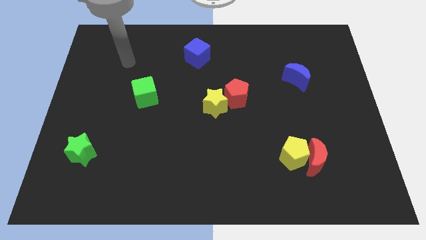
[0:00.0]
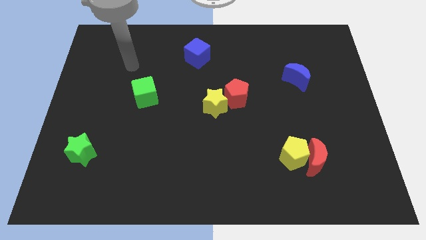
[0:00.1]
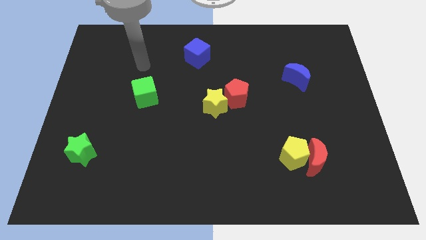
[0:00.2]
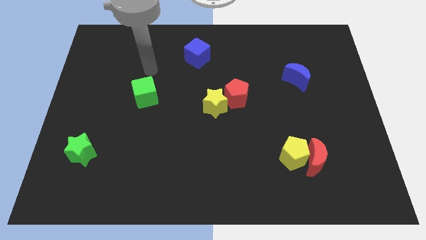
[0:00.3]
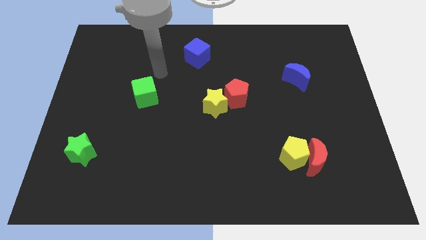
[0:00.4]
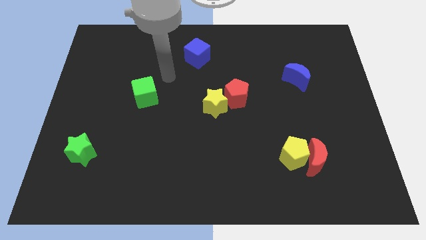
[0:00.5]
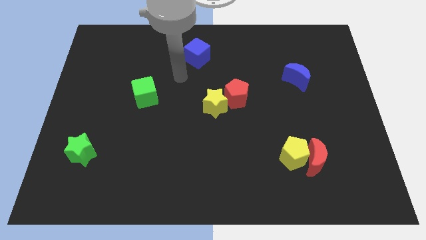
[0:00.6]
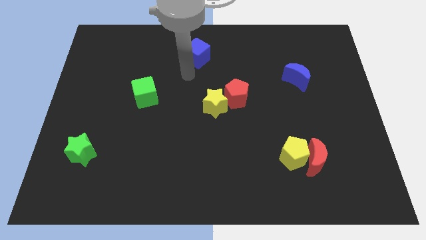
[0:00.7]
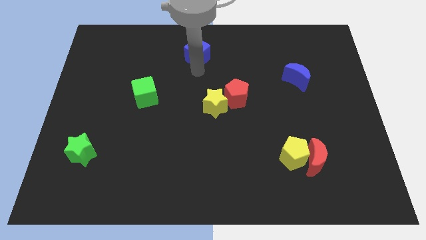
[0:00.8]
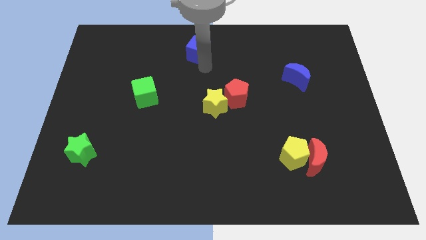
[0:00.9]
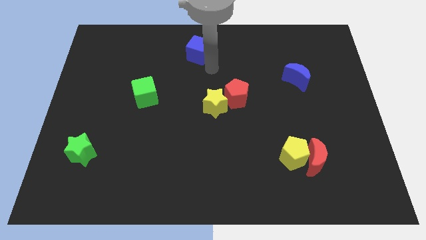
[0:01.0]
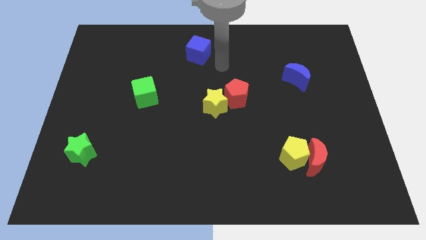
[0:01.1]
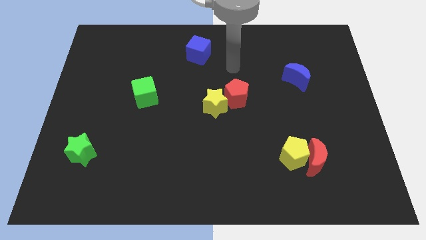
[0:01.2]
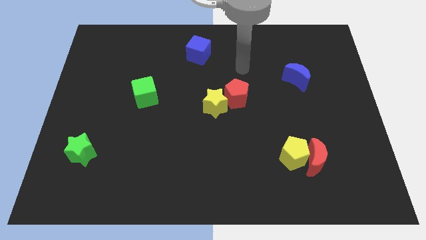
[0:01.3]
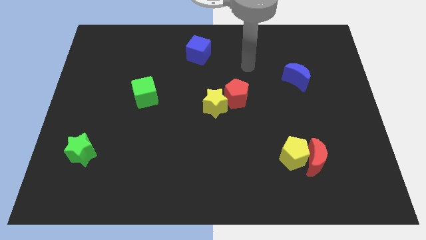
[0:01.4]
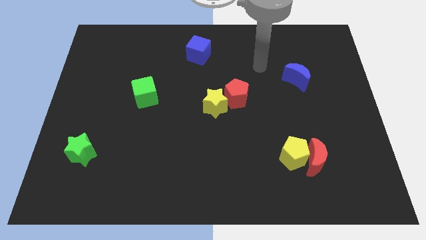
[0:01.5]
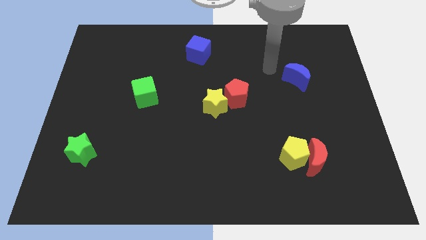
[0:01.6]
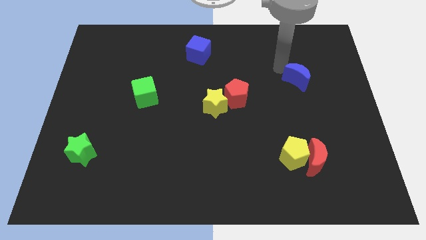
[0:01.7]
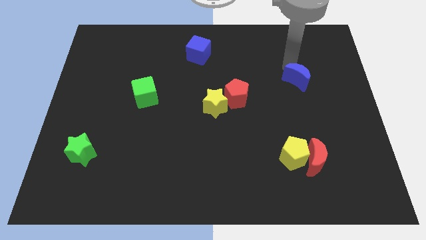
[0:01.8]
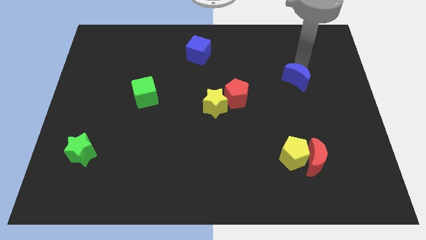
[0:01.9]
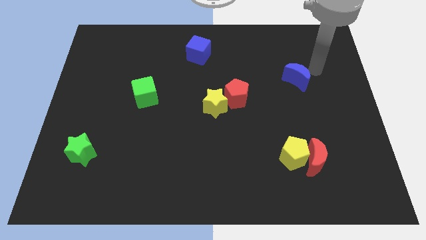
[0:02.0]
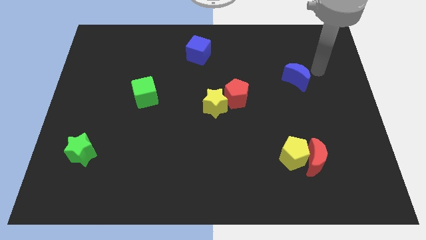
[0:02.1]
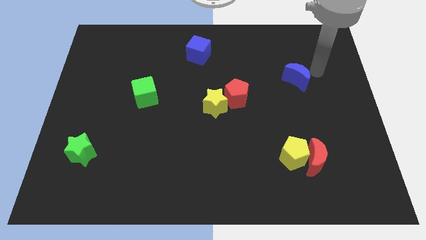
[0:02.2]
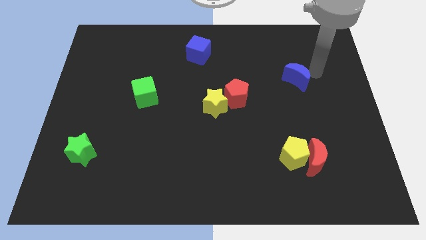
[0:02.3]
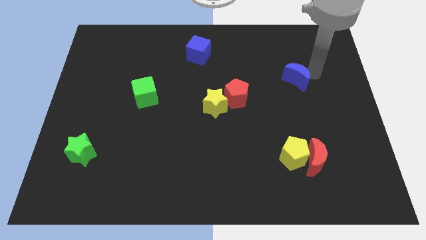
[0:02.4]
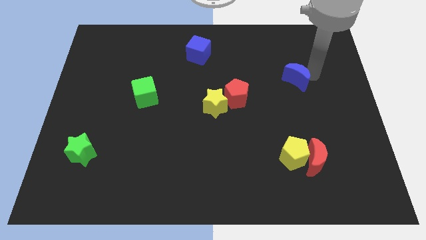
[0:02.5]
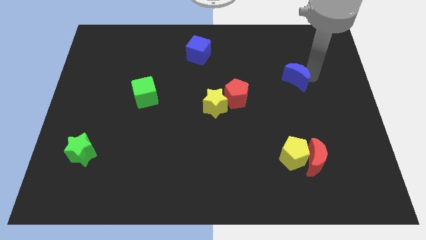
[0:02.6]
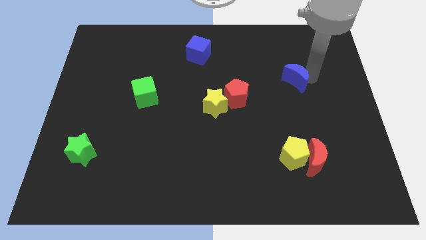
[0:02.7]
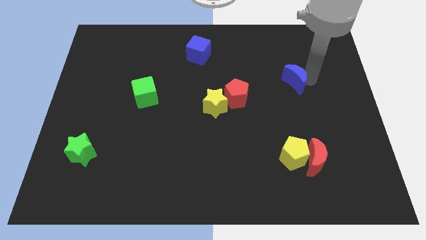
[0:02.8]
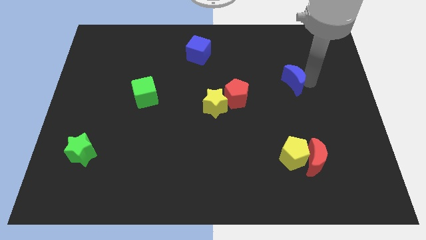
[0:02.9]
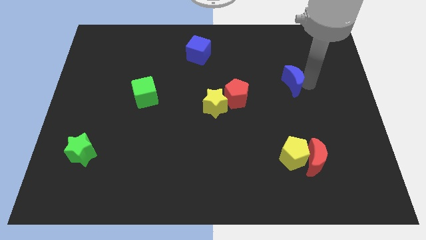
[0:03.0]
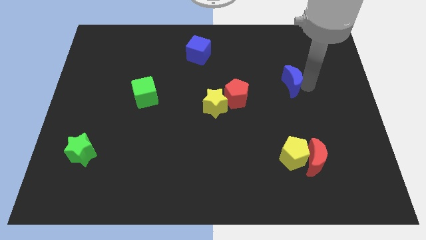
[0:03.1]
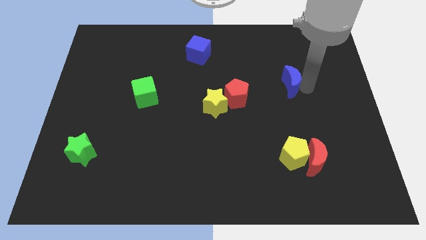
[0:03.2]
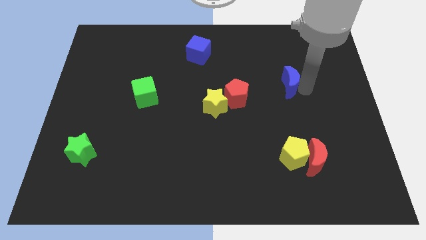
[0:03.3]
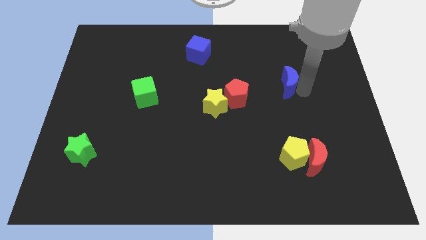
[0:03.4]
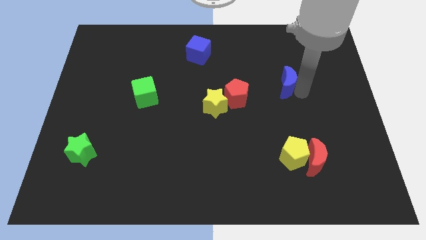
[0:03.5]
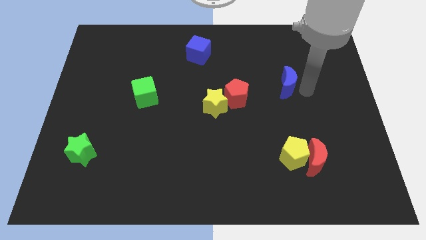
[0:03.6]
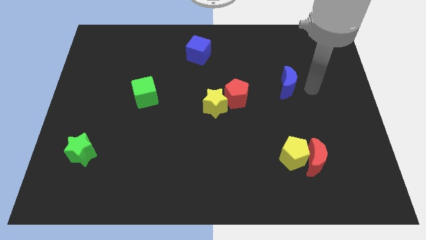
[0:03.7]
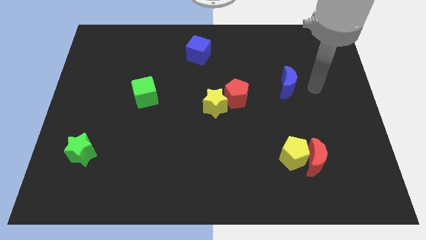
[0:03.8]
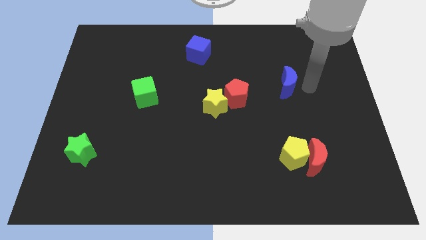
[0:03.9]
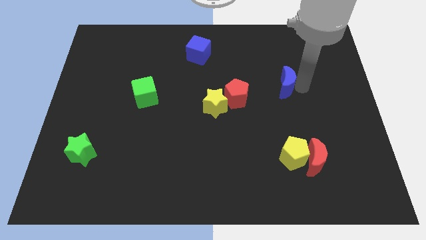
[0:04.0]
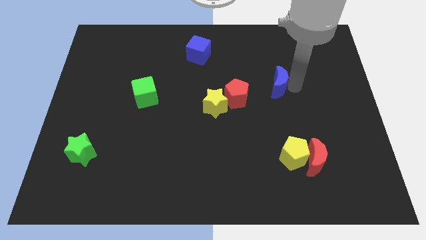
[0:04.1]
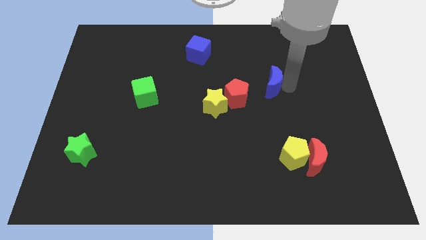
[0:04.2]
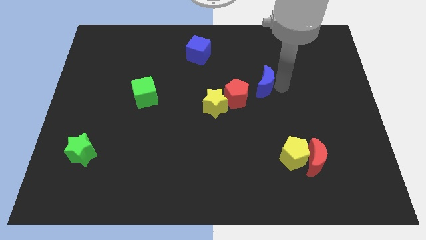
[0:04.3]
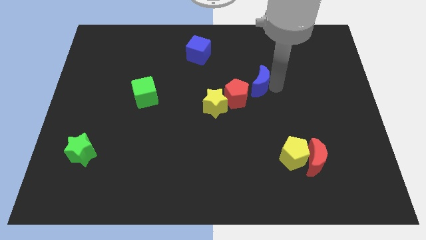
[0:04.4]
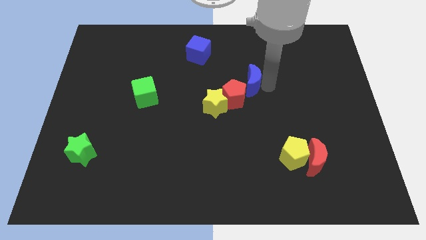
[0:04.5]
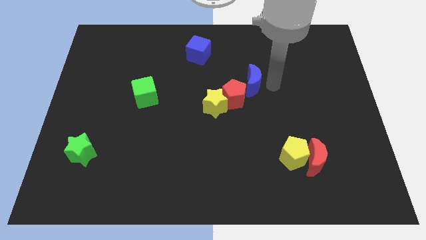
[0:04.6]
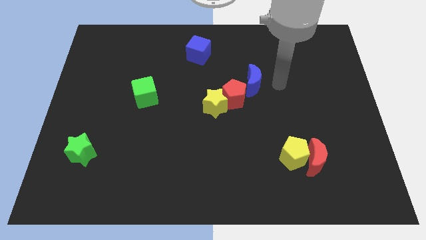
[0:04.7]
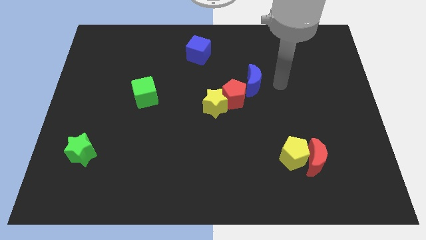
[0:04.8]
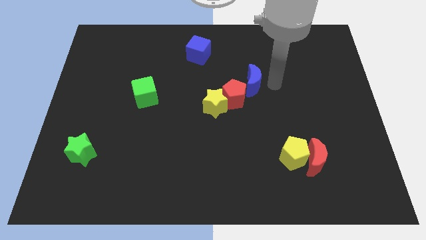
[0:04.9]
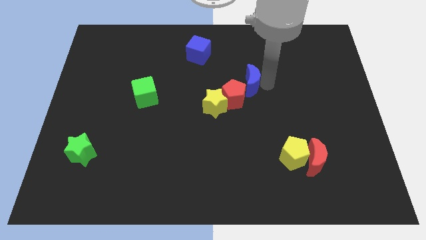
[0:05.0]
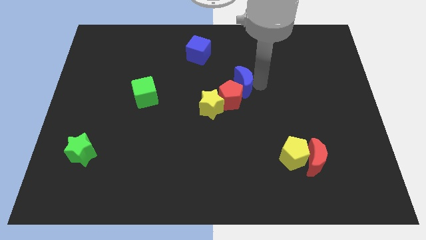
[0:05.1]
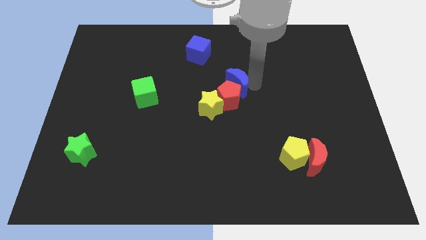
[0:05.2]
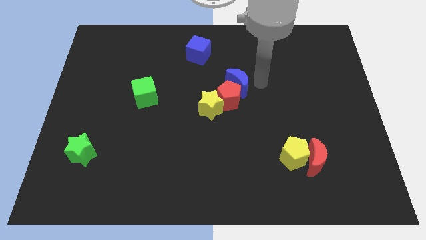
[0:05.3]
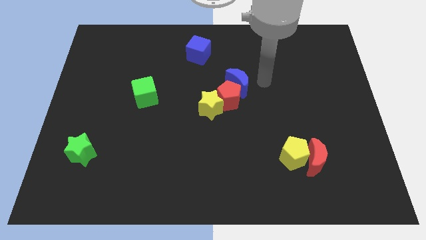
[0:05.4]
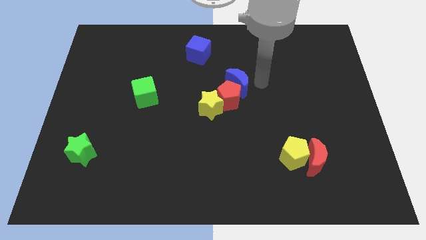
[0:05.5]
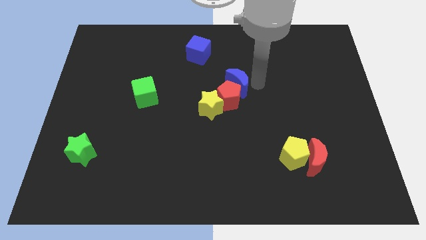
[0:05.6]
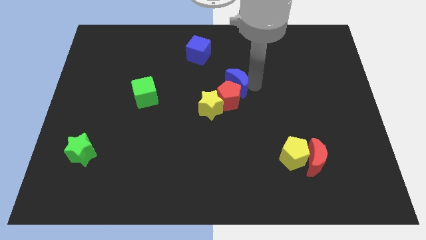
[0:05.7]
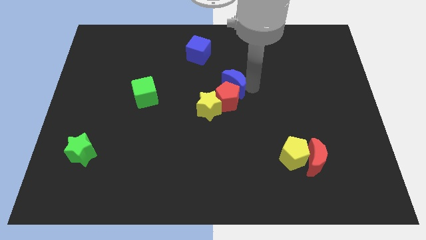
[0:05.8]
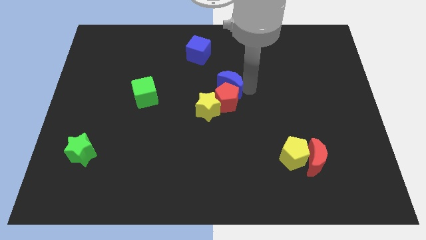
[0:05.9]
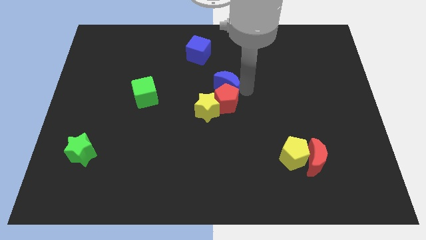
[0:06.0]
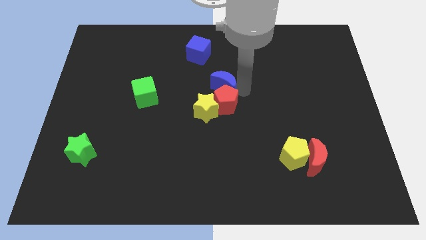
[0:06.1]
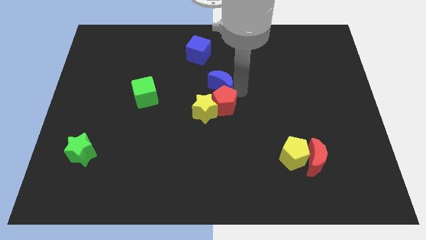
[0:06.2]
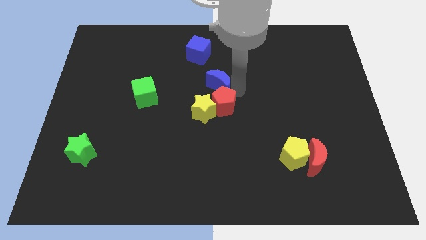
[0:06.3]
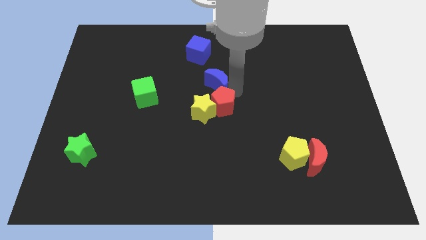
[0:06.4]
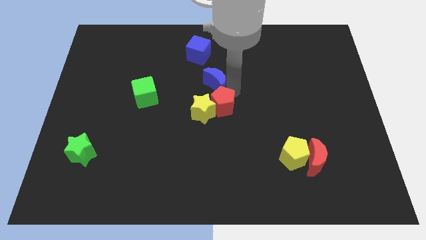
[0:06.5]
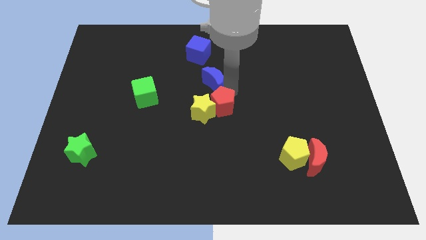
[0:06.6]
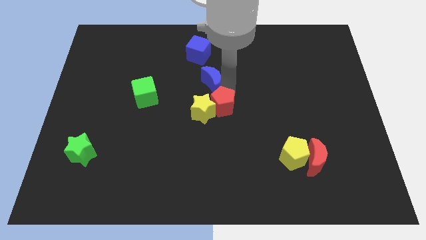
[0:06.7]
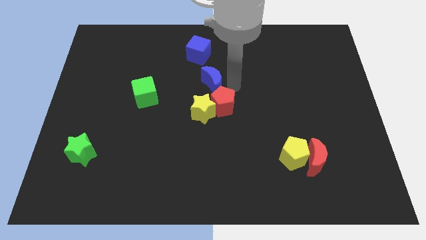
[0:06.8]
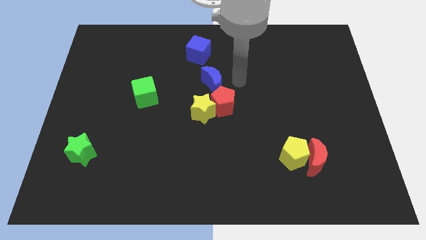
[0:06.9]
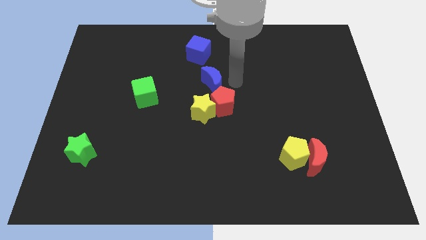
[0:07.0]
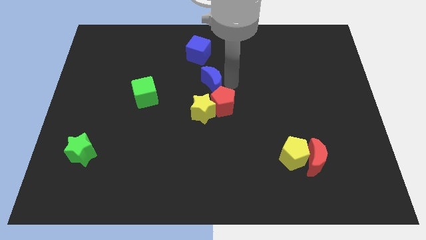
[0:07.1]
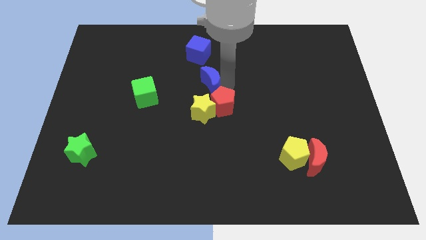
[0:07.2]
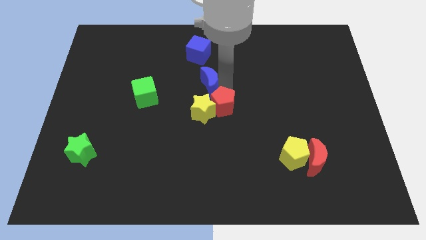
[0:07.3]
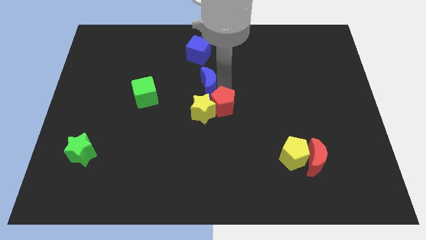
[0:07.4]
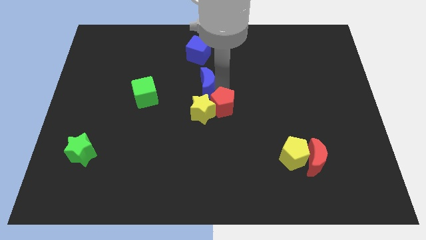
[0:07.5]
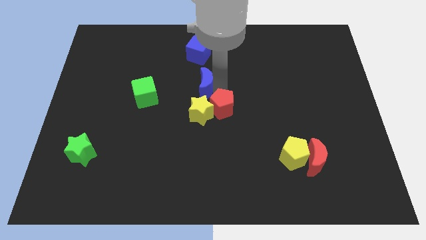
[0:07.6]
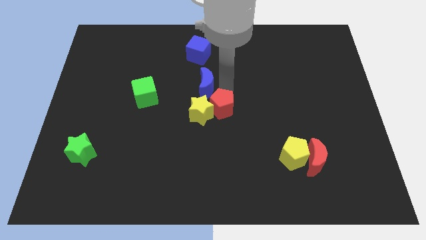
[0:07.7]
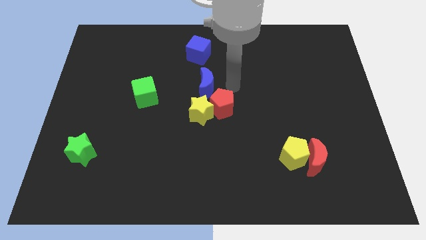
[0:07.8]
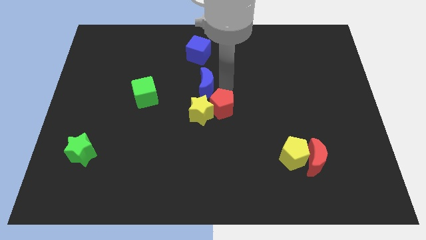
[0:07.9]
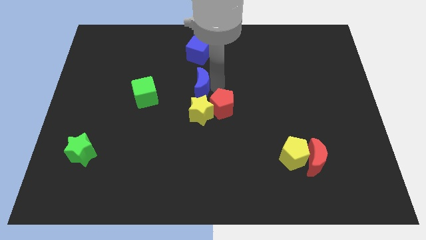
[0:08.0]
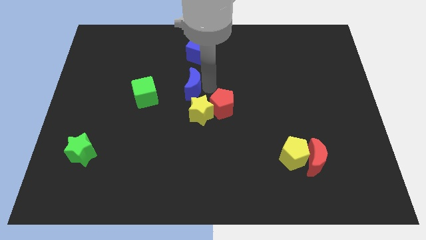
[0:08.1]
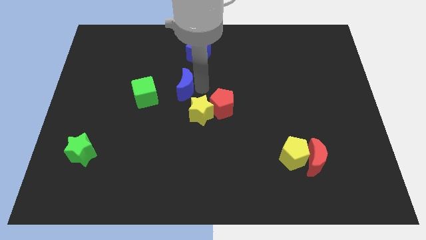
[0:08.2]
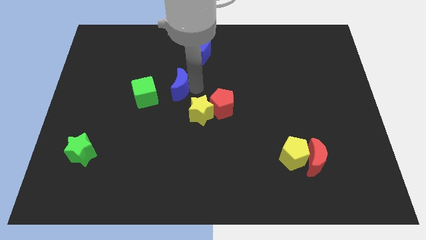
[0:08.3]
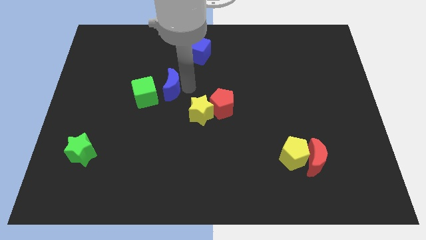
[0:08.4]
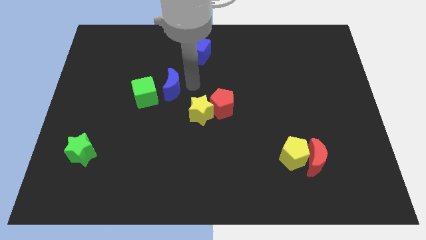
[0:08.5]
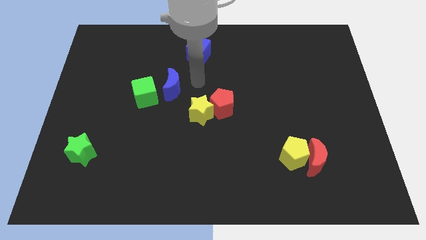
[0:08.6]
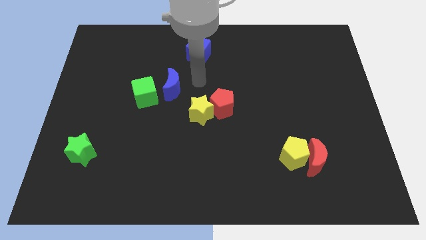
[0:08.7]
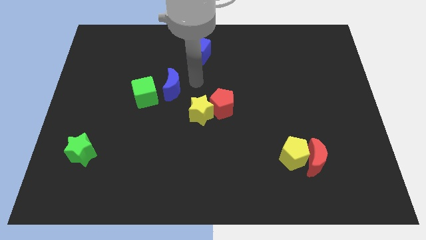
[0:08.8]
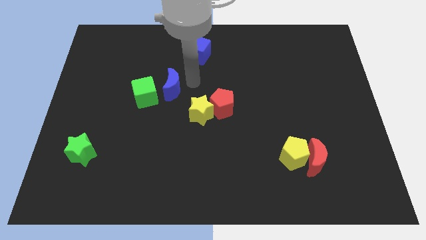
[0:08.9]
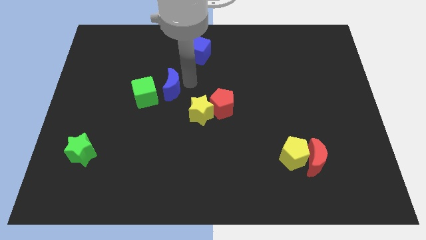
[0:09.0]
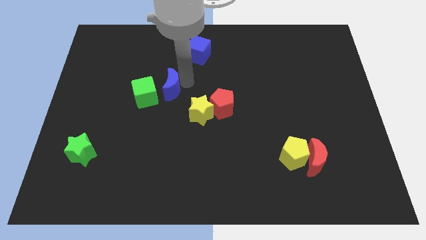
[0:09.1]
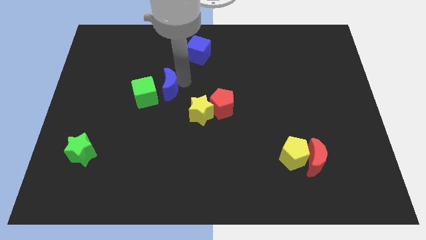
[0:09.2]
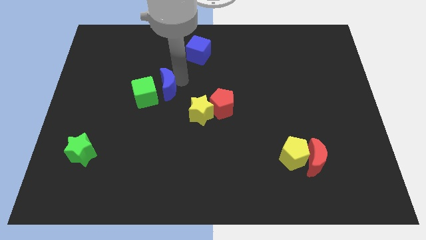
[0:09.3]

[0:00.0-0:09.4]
slide the blue moon to the green cube
